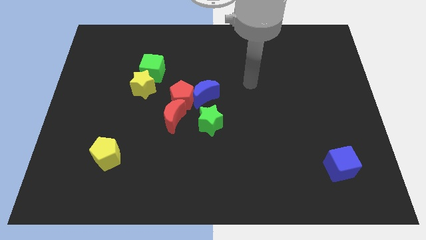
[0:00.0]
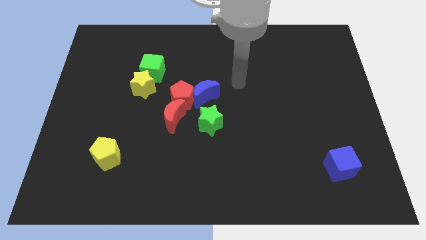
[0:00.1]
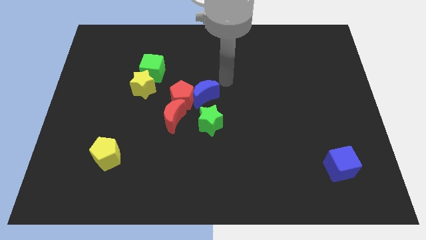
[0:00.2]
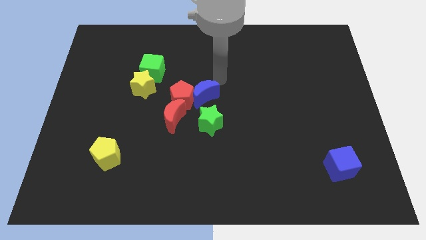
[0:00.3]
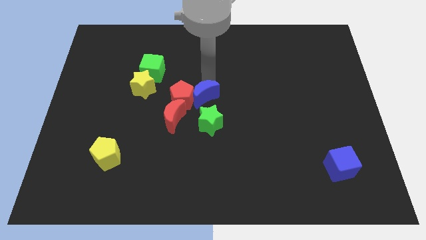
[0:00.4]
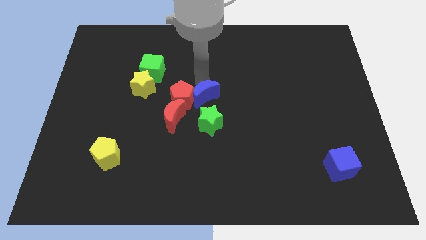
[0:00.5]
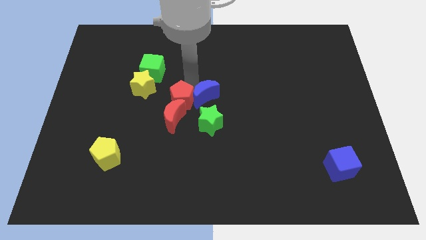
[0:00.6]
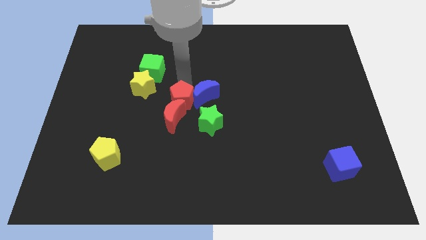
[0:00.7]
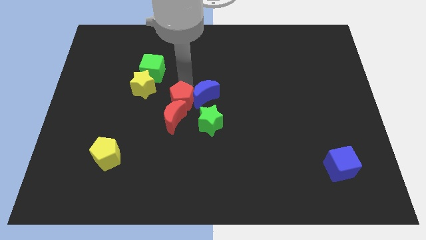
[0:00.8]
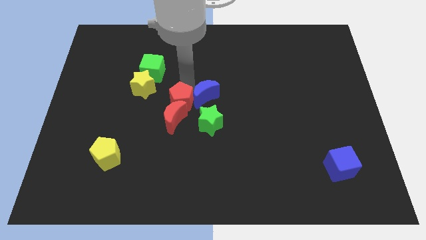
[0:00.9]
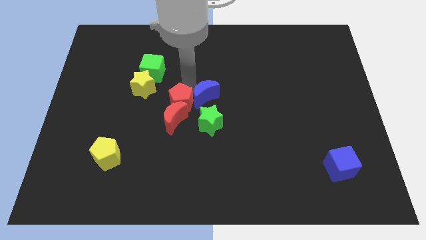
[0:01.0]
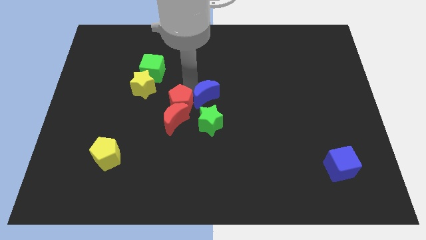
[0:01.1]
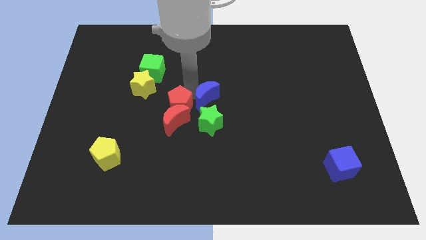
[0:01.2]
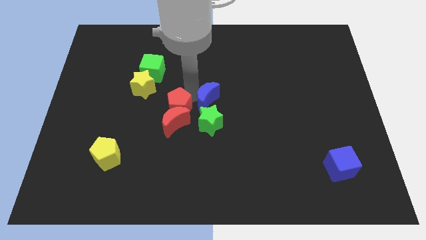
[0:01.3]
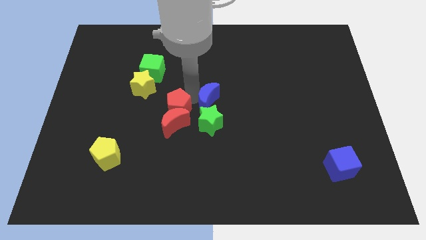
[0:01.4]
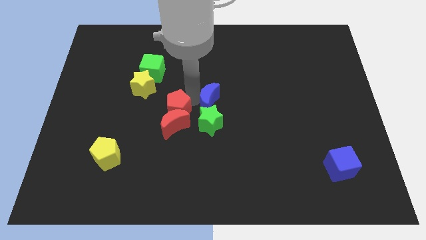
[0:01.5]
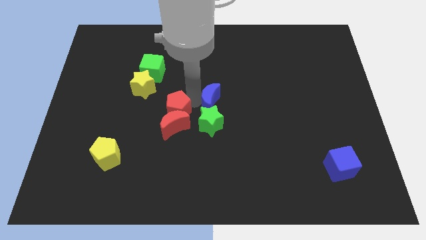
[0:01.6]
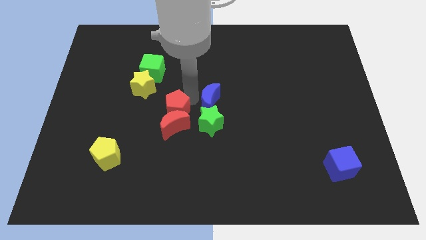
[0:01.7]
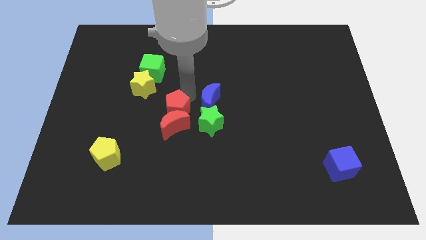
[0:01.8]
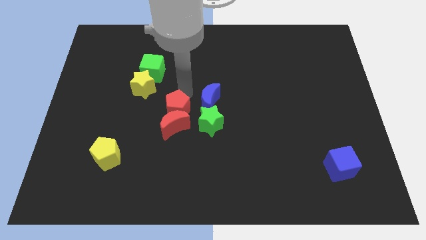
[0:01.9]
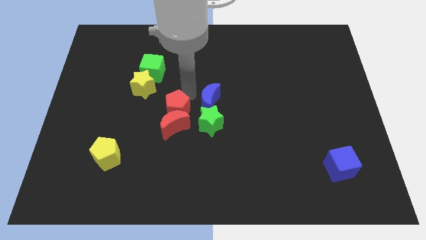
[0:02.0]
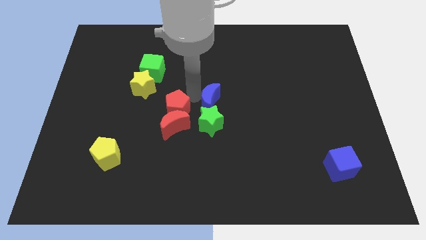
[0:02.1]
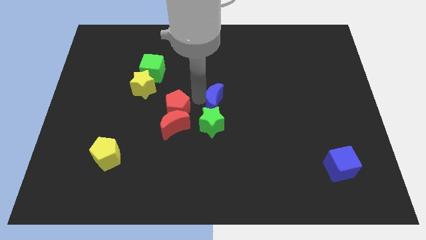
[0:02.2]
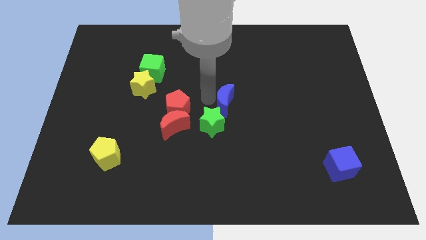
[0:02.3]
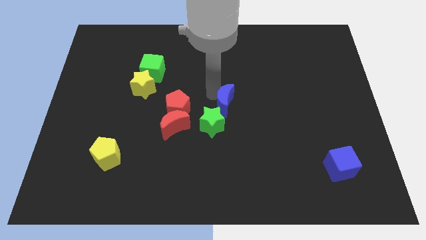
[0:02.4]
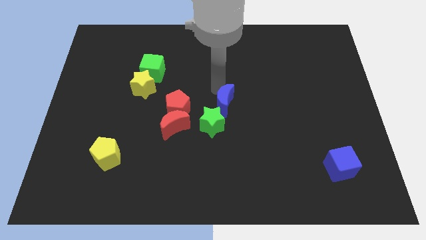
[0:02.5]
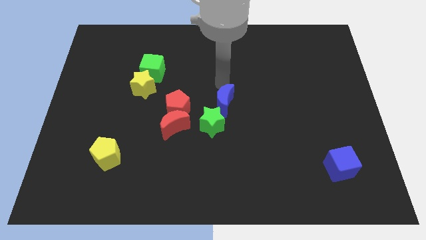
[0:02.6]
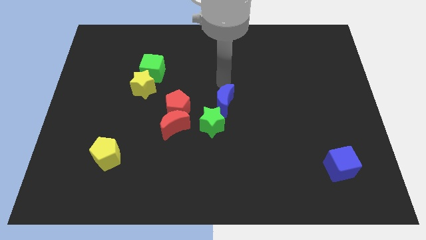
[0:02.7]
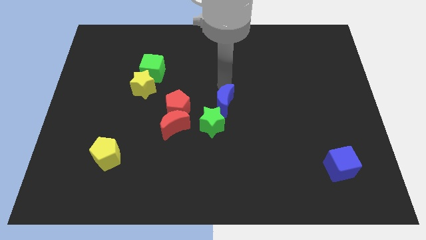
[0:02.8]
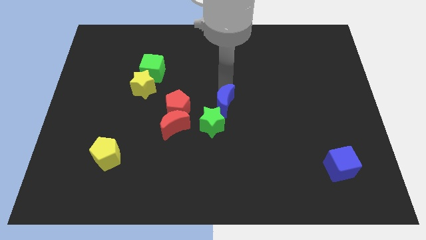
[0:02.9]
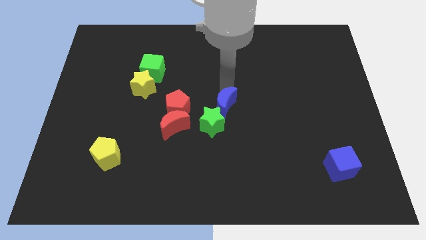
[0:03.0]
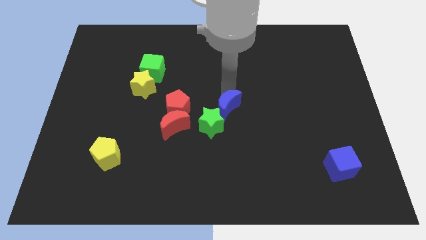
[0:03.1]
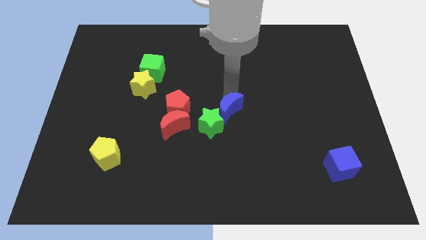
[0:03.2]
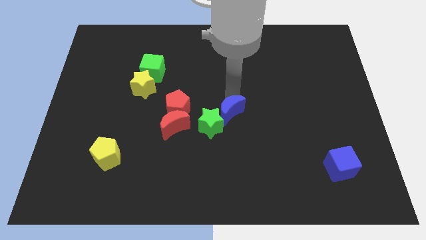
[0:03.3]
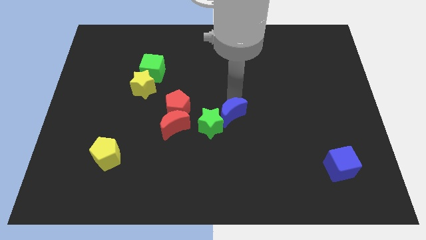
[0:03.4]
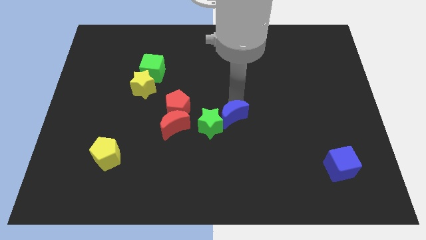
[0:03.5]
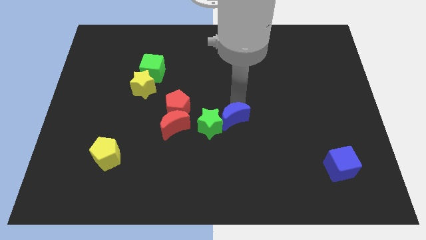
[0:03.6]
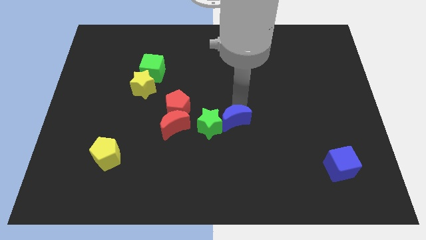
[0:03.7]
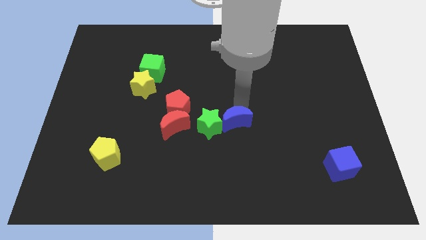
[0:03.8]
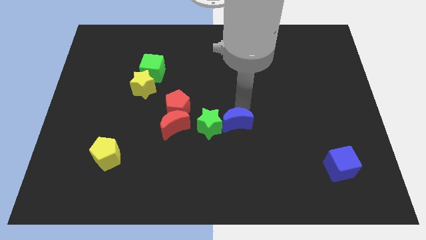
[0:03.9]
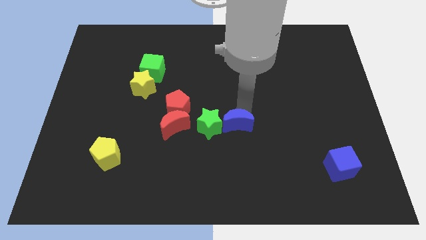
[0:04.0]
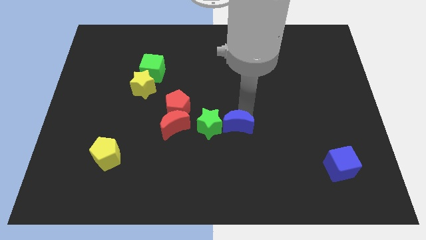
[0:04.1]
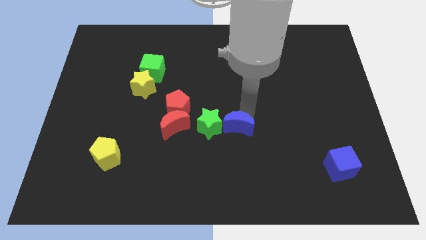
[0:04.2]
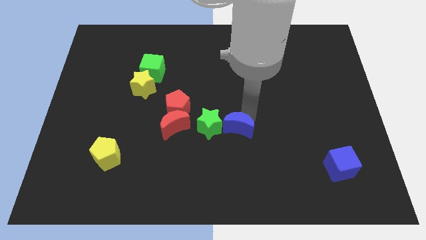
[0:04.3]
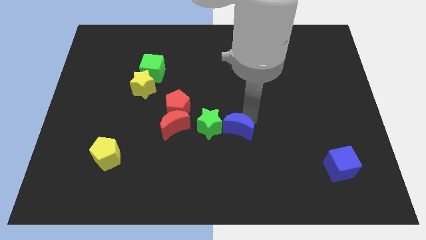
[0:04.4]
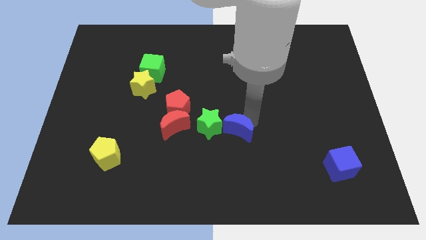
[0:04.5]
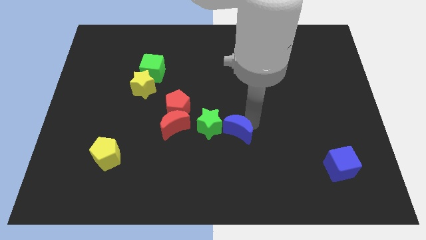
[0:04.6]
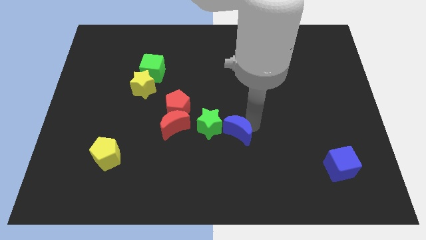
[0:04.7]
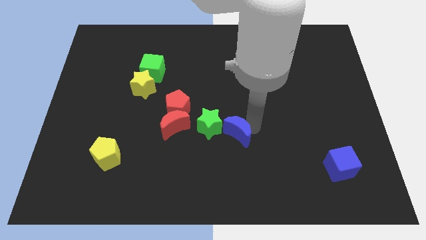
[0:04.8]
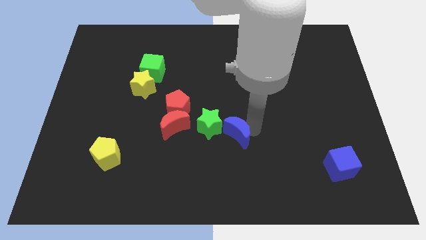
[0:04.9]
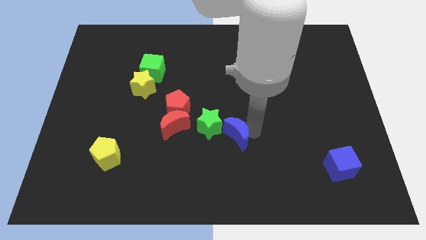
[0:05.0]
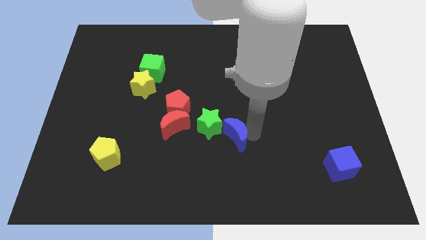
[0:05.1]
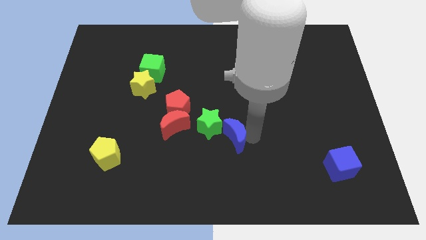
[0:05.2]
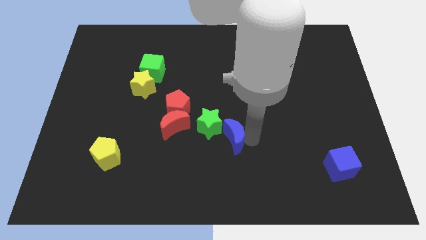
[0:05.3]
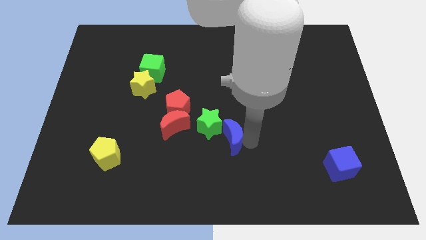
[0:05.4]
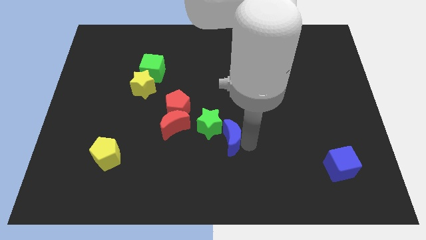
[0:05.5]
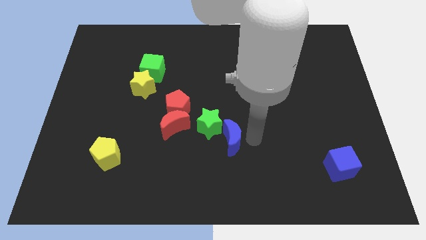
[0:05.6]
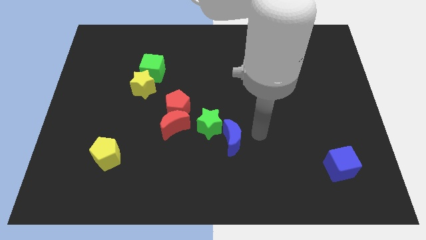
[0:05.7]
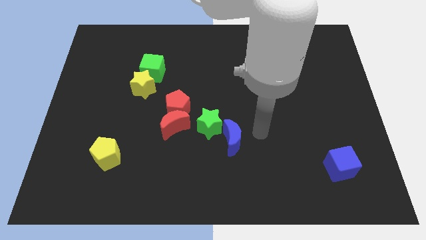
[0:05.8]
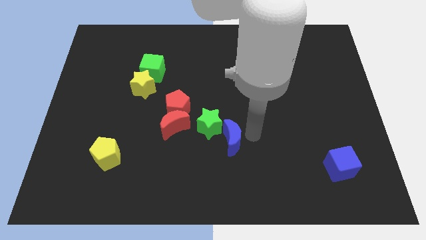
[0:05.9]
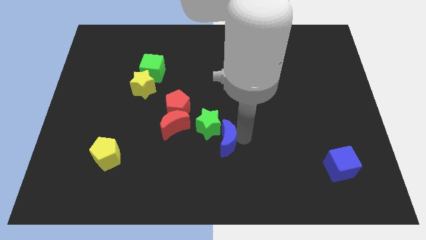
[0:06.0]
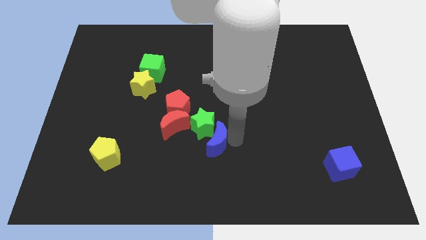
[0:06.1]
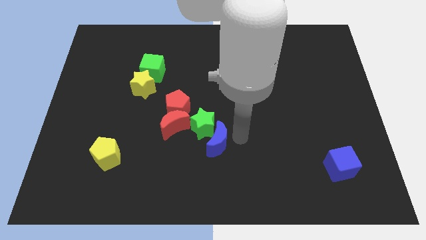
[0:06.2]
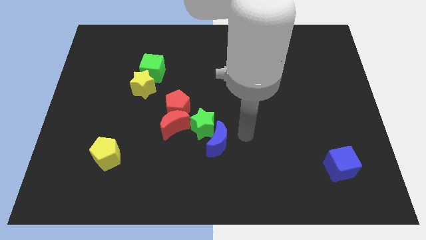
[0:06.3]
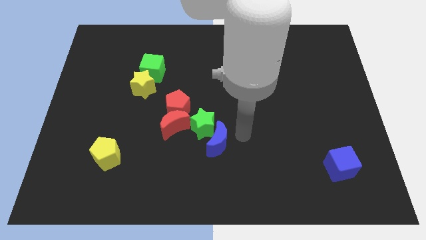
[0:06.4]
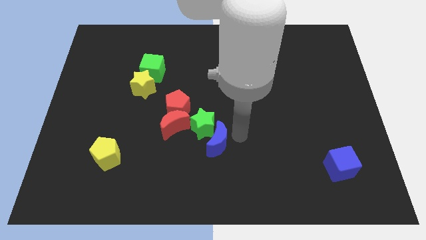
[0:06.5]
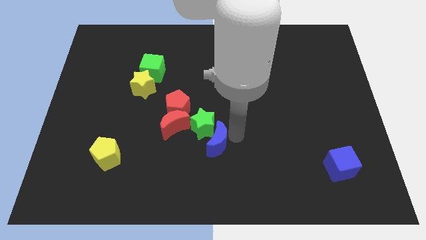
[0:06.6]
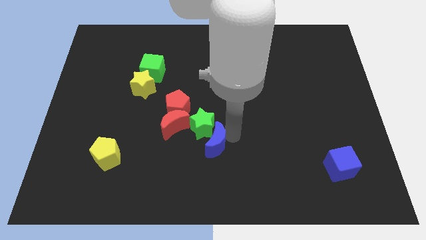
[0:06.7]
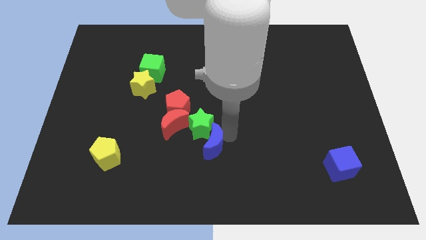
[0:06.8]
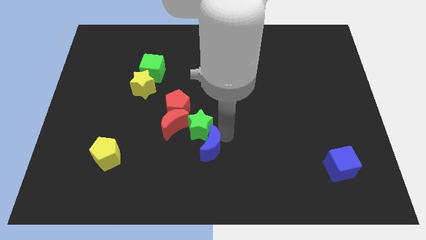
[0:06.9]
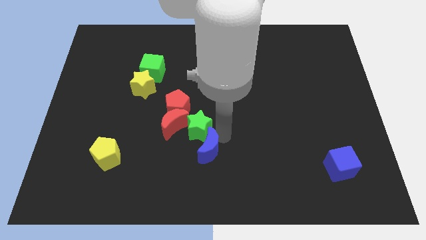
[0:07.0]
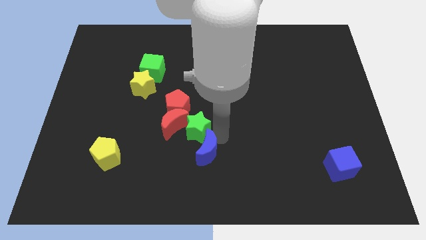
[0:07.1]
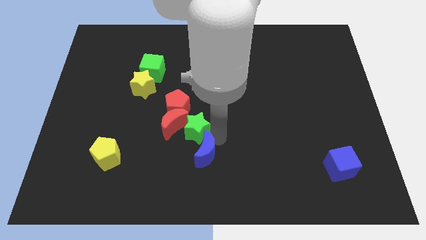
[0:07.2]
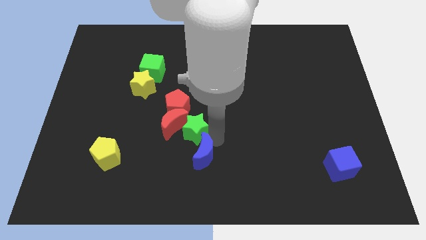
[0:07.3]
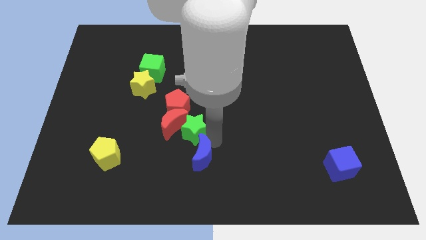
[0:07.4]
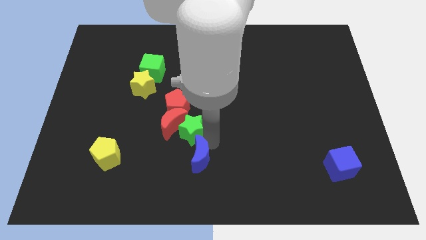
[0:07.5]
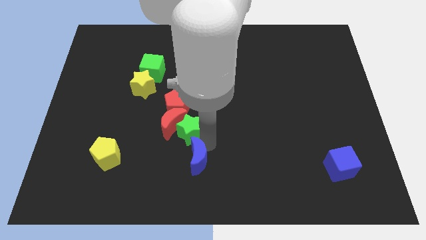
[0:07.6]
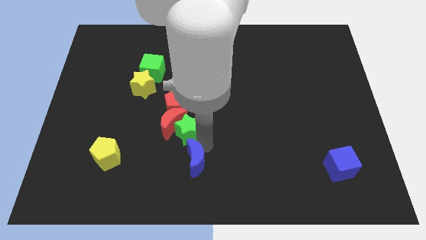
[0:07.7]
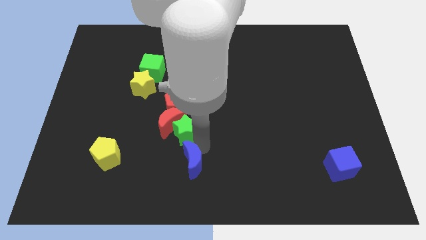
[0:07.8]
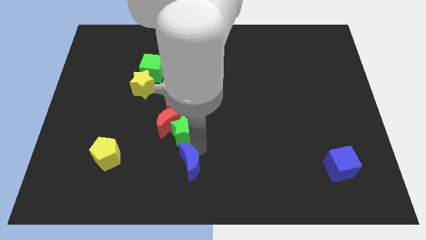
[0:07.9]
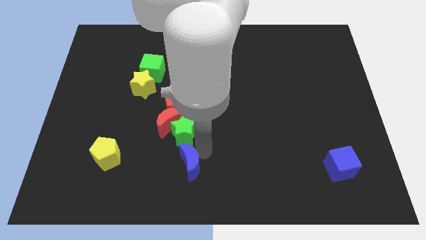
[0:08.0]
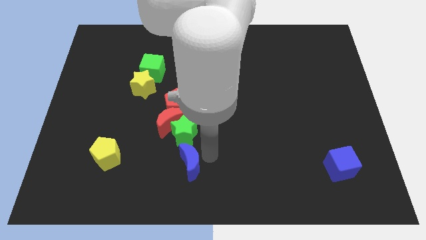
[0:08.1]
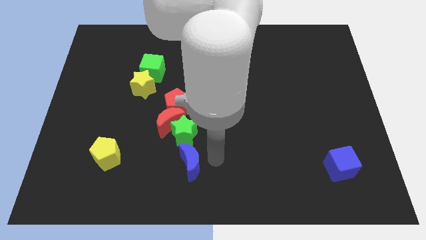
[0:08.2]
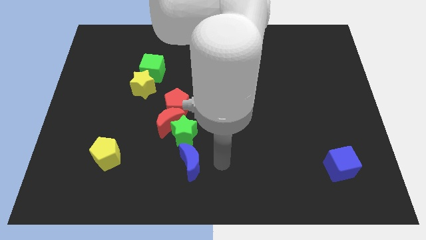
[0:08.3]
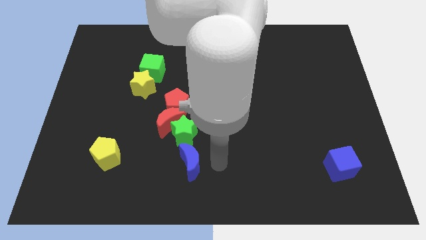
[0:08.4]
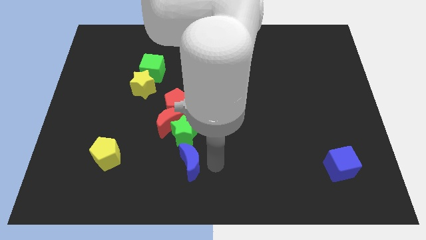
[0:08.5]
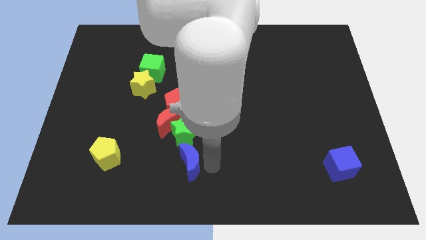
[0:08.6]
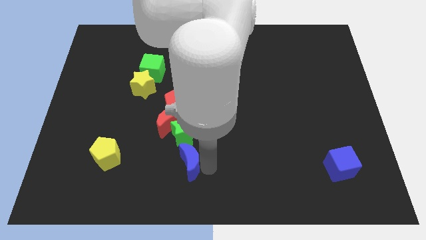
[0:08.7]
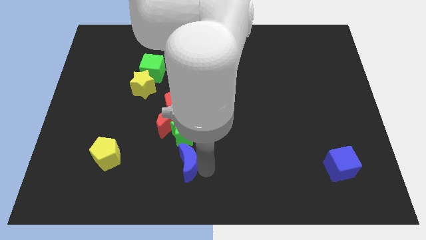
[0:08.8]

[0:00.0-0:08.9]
slide the blue moon below the red moon
